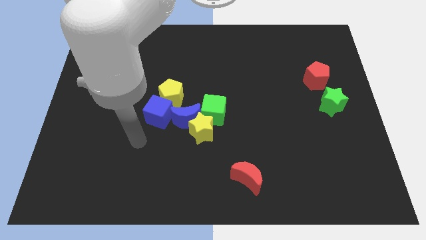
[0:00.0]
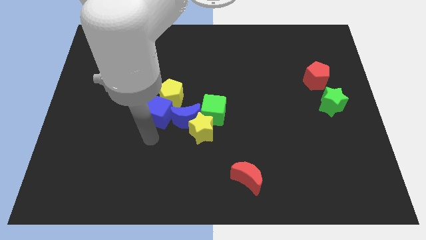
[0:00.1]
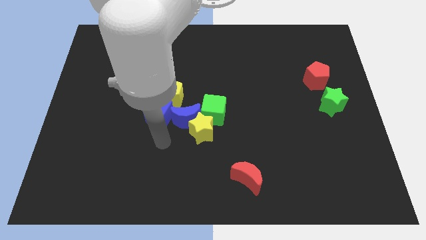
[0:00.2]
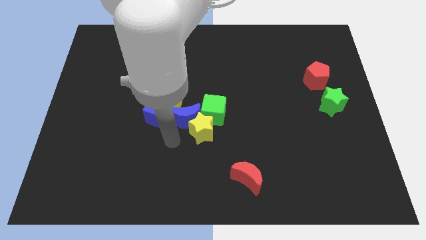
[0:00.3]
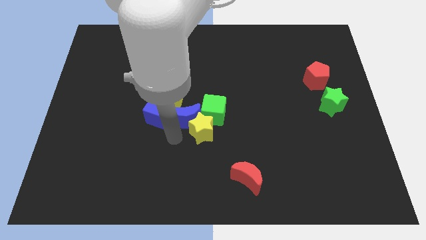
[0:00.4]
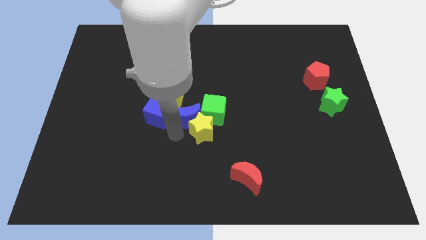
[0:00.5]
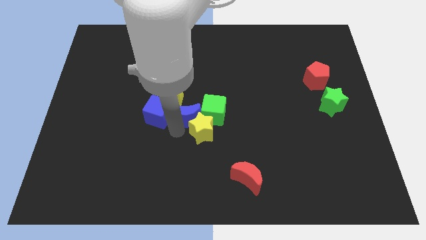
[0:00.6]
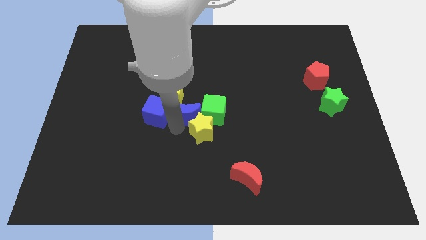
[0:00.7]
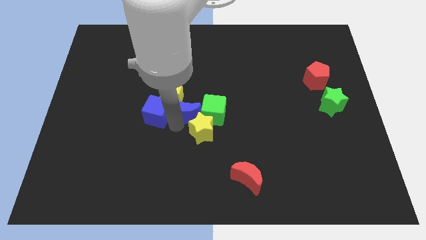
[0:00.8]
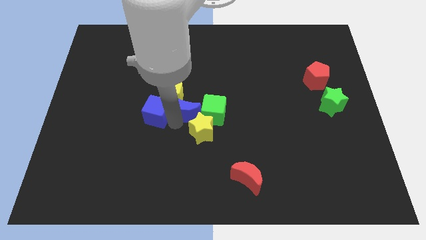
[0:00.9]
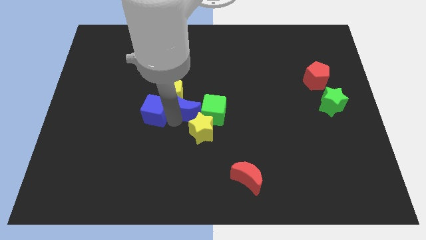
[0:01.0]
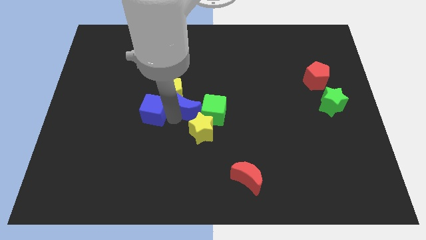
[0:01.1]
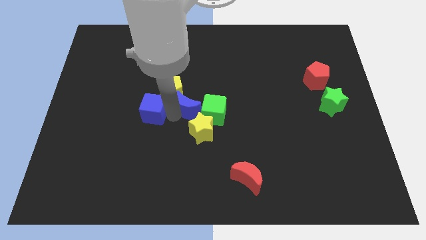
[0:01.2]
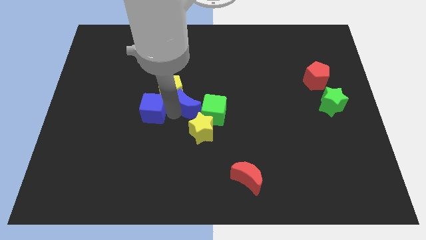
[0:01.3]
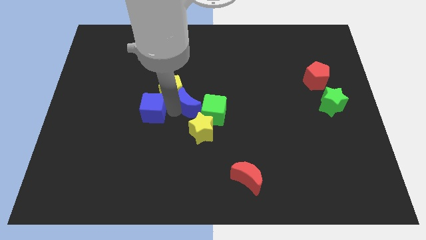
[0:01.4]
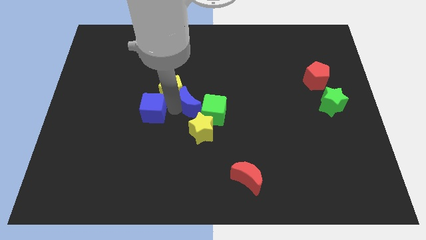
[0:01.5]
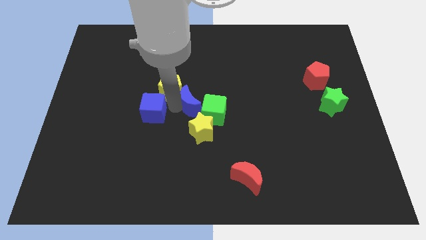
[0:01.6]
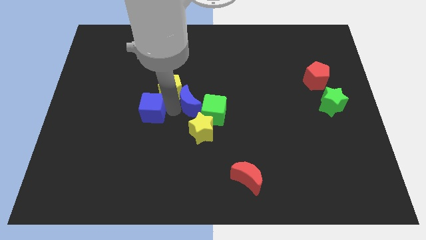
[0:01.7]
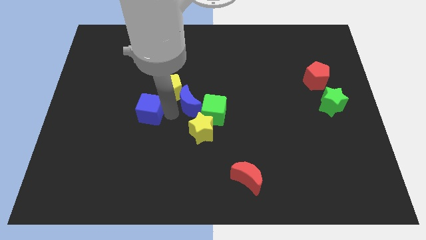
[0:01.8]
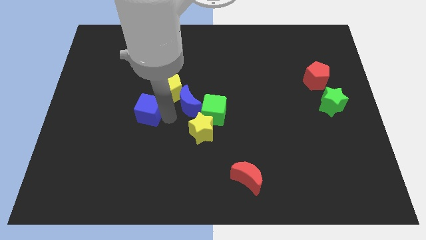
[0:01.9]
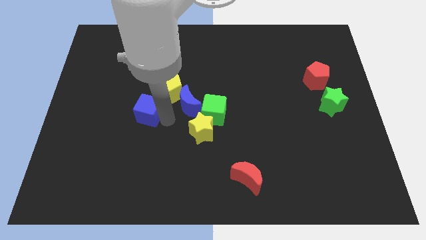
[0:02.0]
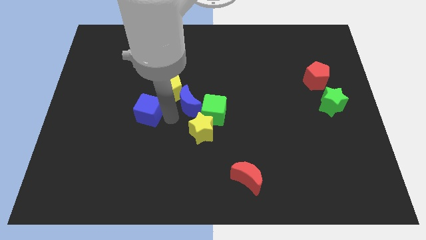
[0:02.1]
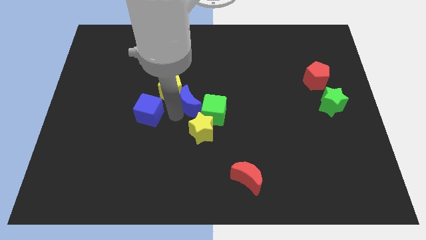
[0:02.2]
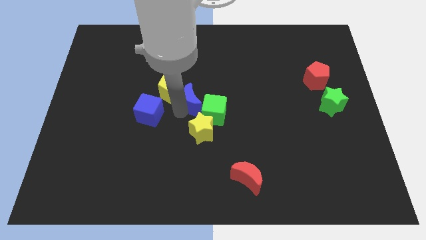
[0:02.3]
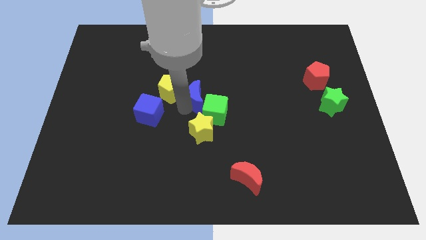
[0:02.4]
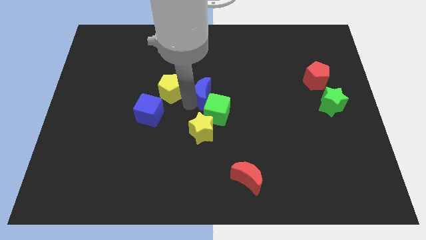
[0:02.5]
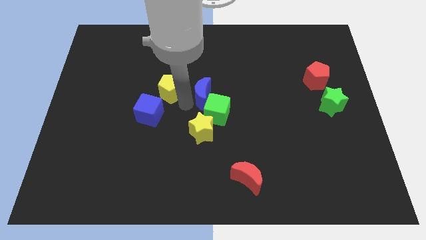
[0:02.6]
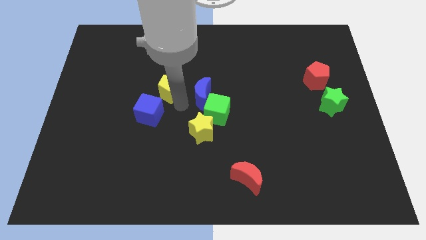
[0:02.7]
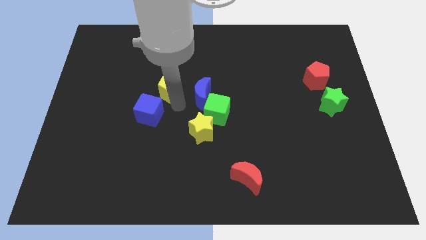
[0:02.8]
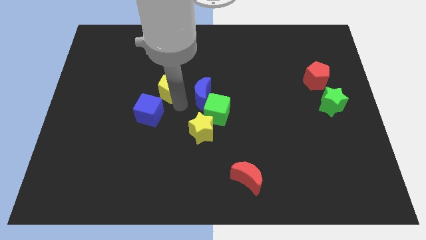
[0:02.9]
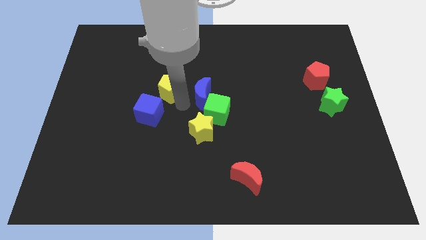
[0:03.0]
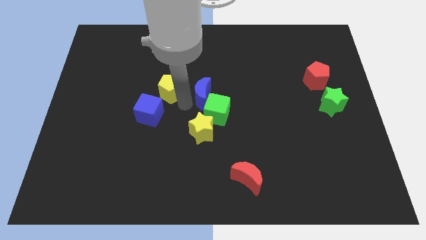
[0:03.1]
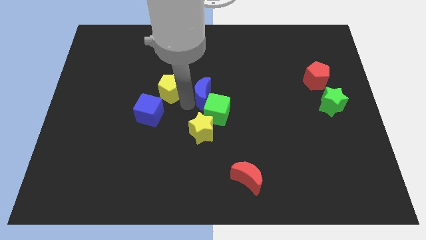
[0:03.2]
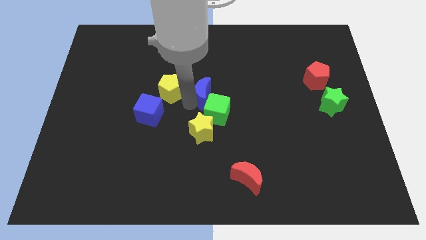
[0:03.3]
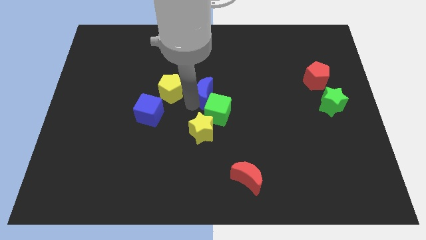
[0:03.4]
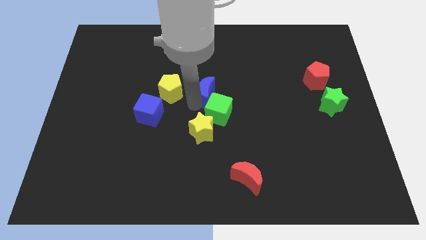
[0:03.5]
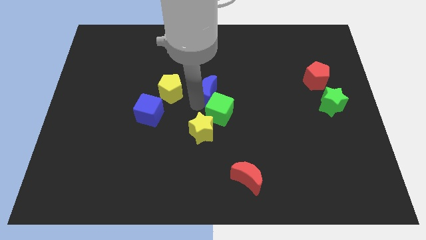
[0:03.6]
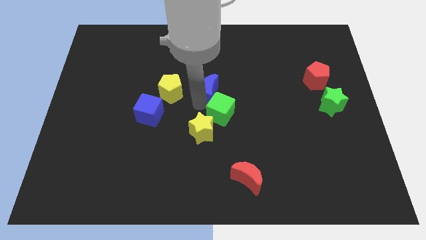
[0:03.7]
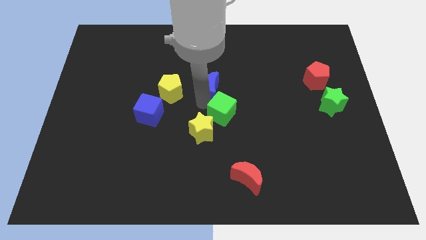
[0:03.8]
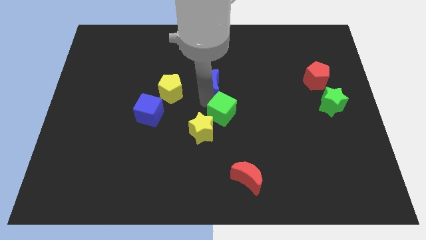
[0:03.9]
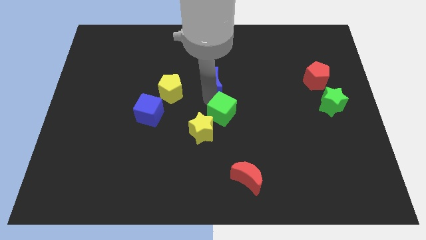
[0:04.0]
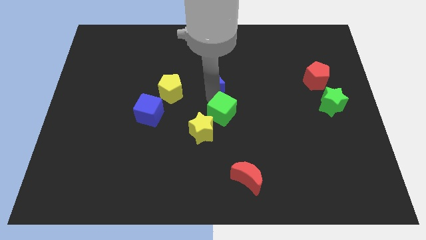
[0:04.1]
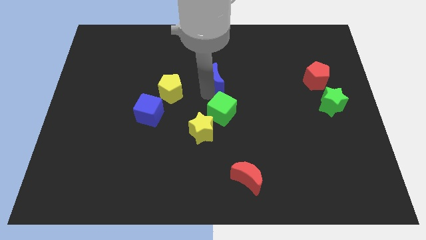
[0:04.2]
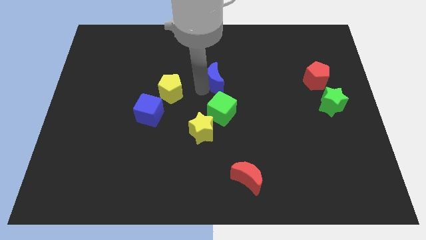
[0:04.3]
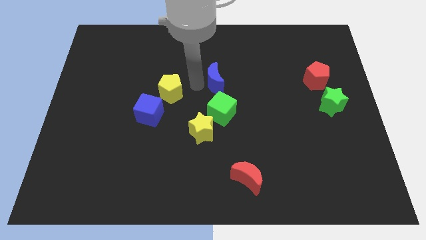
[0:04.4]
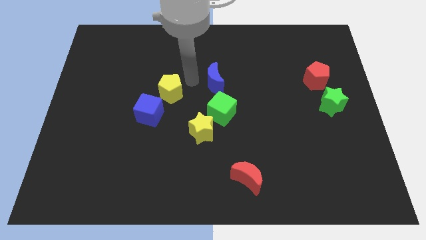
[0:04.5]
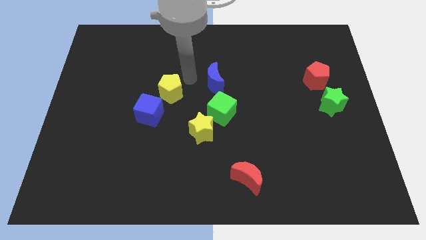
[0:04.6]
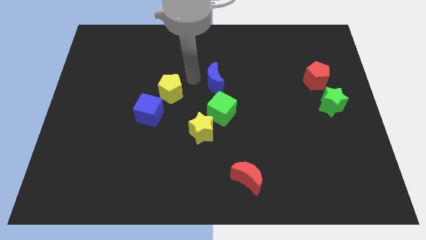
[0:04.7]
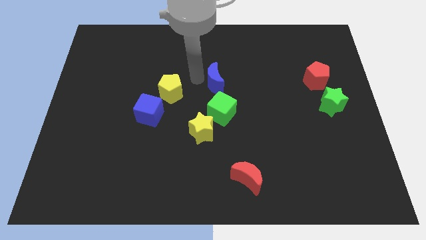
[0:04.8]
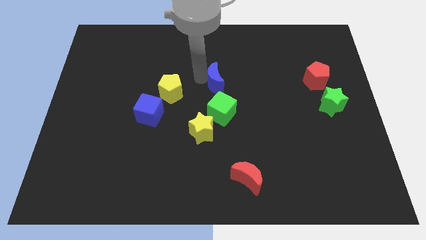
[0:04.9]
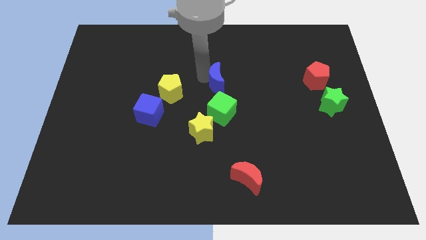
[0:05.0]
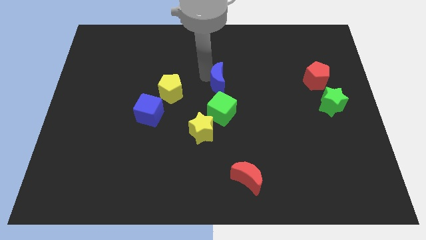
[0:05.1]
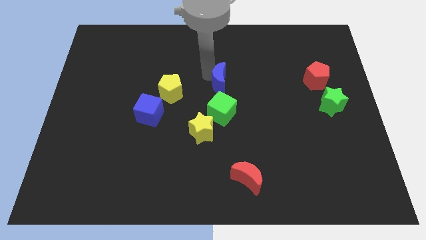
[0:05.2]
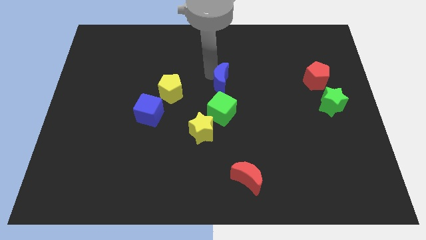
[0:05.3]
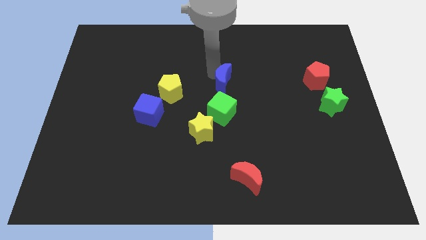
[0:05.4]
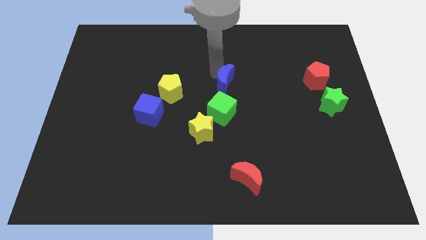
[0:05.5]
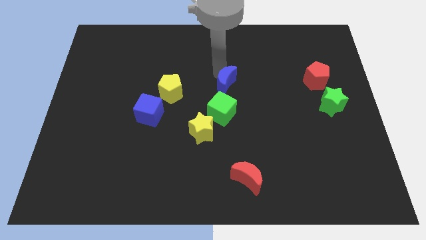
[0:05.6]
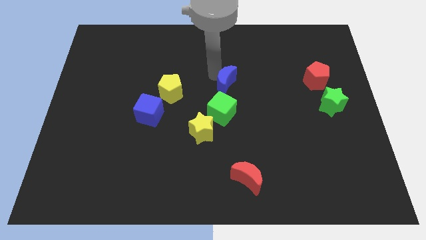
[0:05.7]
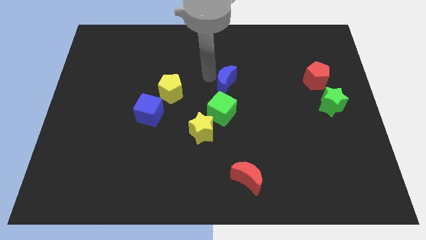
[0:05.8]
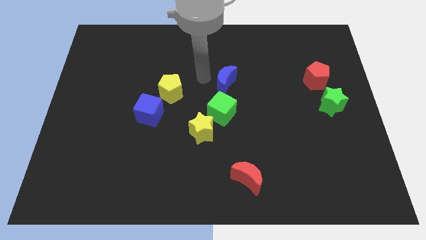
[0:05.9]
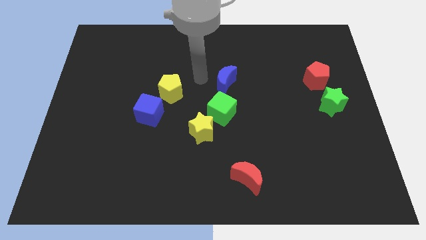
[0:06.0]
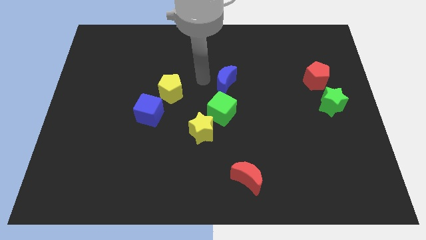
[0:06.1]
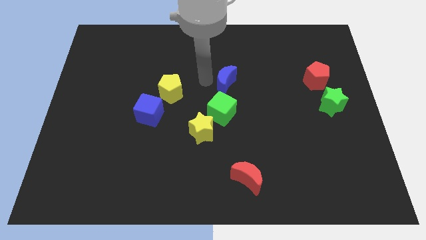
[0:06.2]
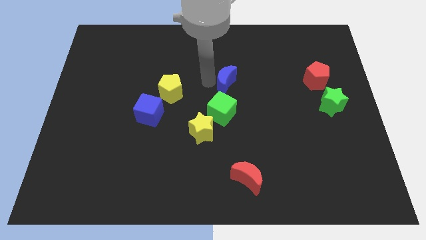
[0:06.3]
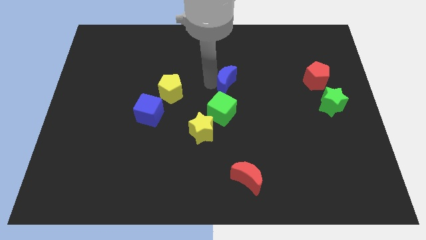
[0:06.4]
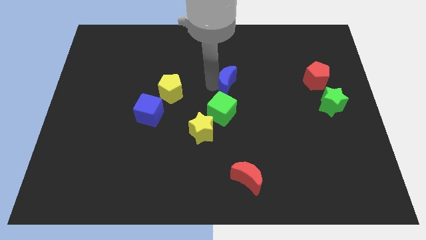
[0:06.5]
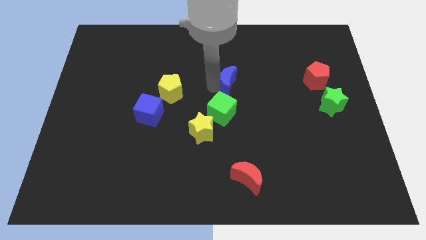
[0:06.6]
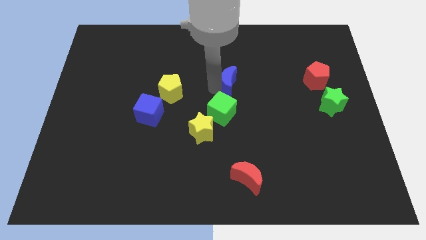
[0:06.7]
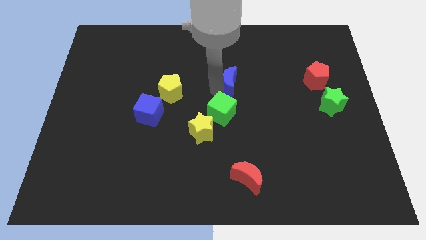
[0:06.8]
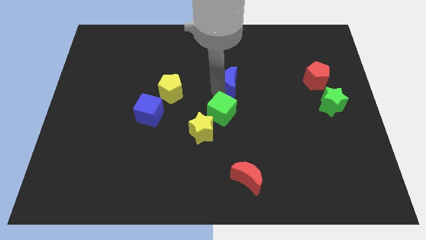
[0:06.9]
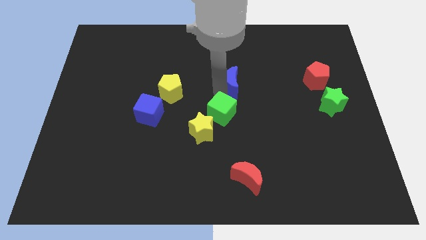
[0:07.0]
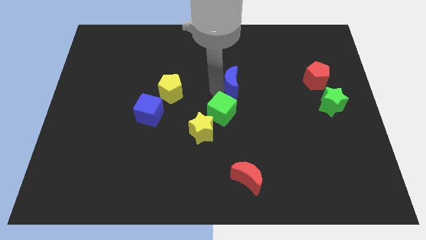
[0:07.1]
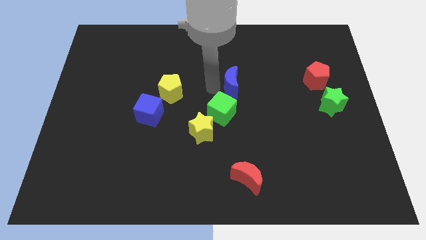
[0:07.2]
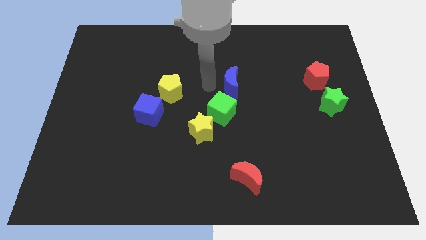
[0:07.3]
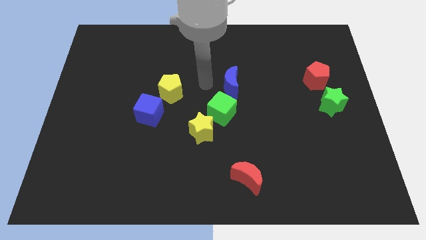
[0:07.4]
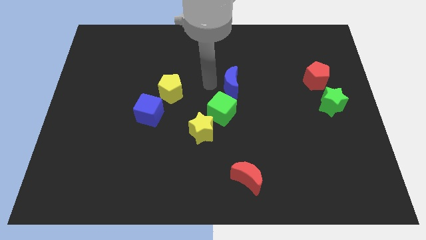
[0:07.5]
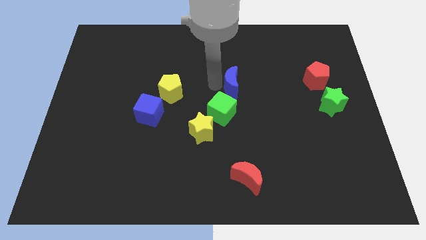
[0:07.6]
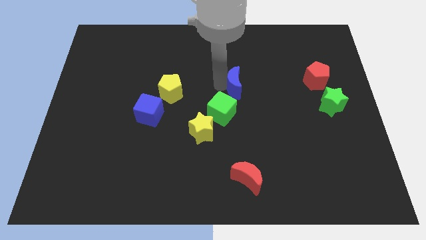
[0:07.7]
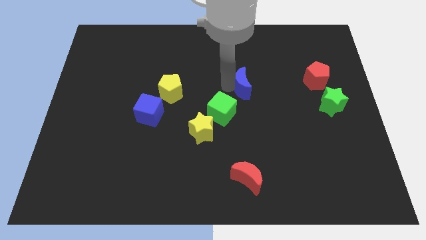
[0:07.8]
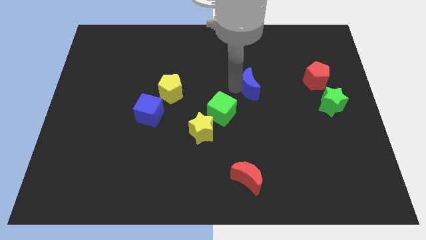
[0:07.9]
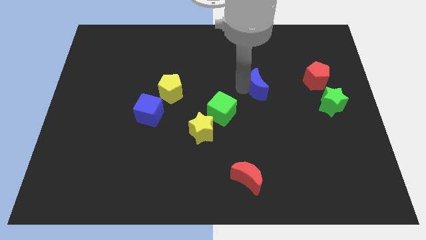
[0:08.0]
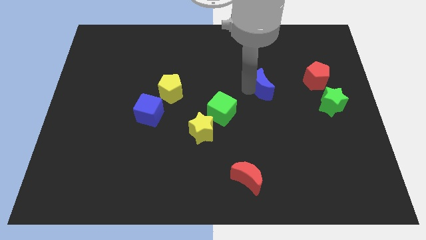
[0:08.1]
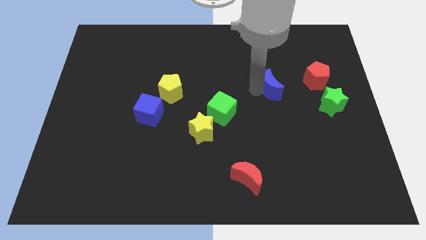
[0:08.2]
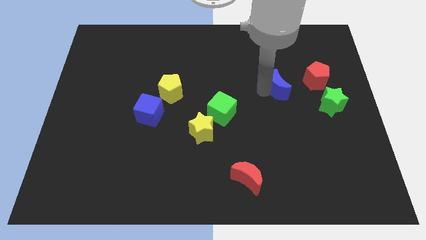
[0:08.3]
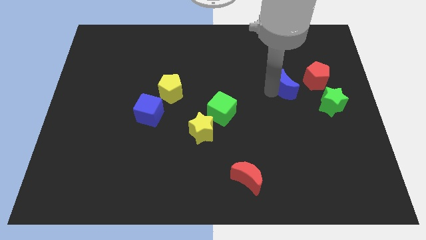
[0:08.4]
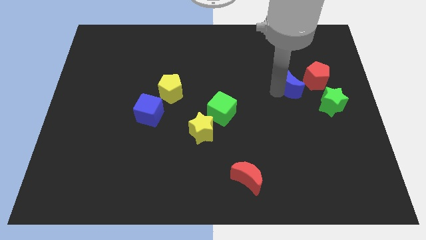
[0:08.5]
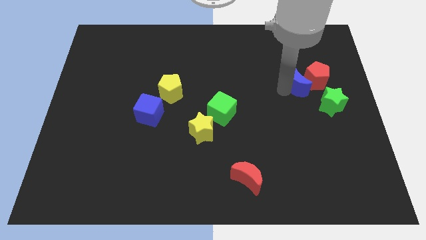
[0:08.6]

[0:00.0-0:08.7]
put the blue moon to the red pentagon
